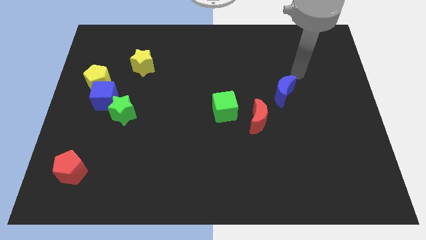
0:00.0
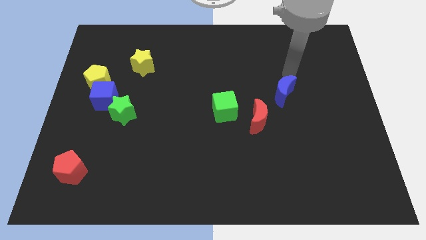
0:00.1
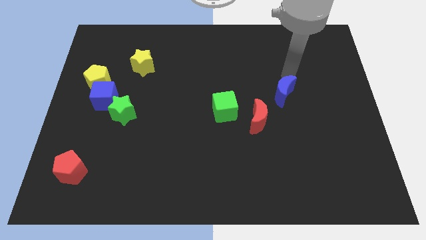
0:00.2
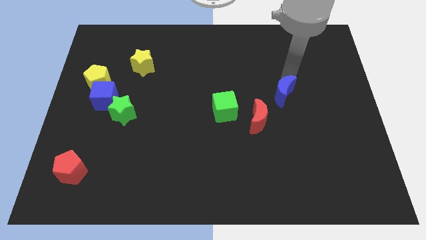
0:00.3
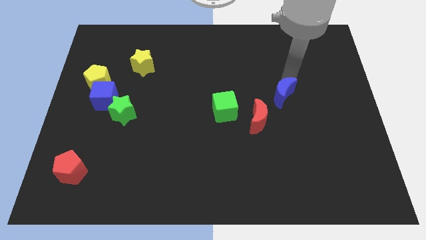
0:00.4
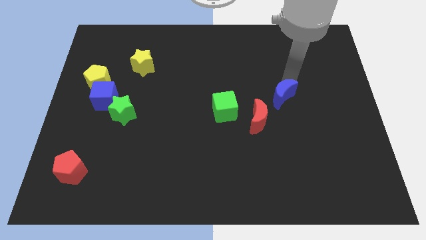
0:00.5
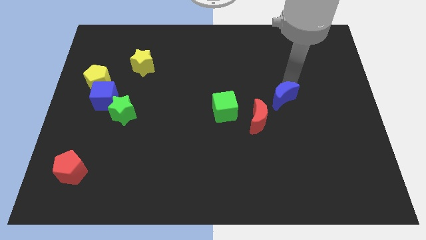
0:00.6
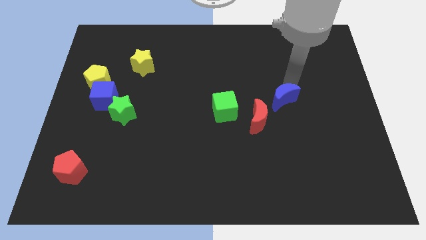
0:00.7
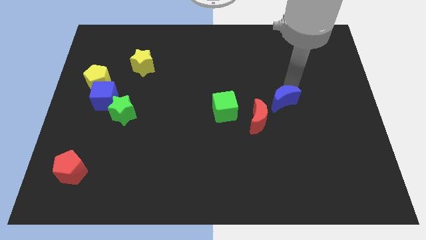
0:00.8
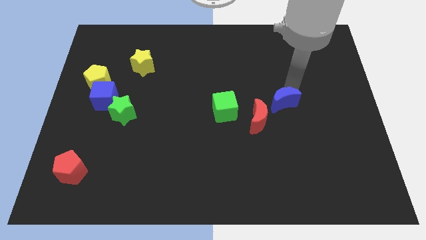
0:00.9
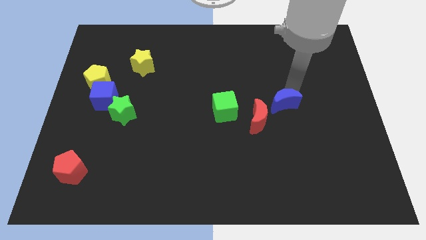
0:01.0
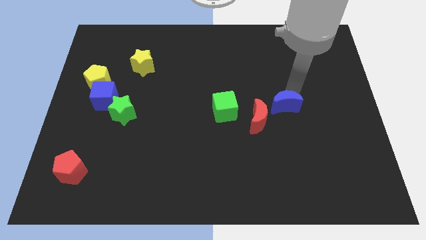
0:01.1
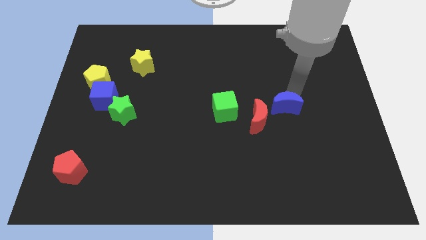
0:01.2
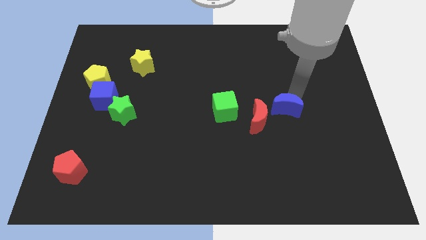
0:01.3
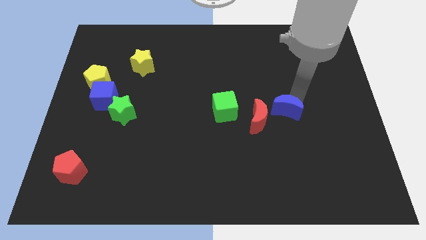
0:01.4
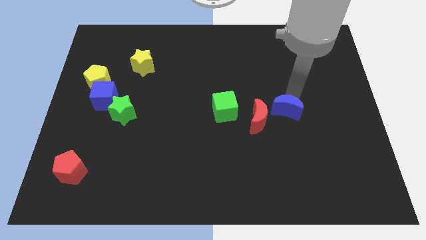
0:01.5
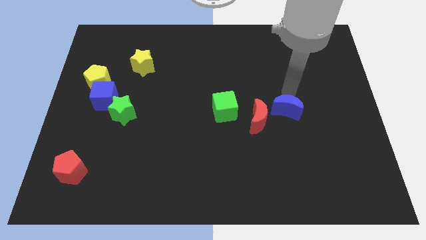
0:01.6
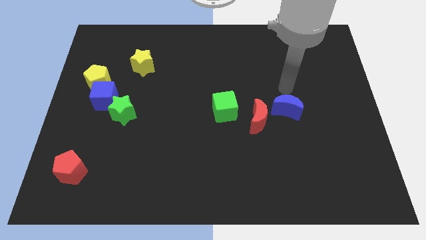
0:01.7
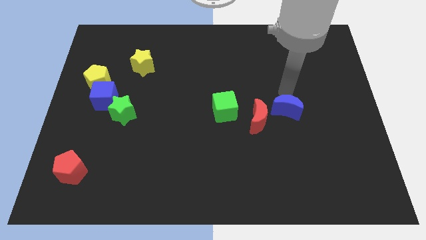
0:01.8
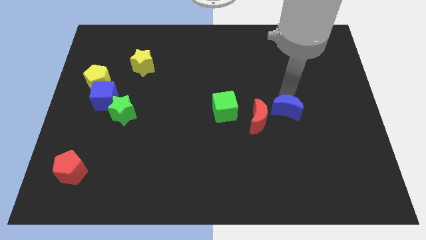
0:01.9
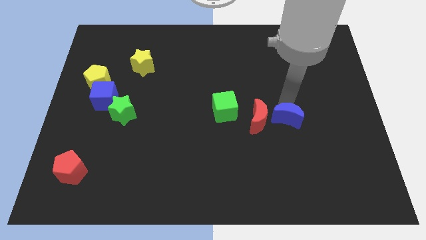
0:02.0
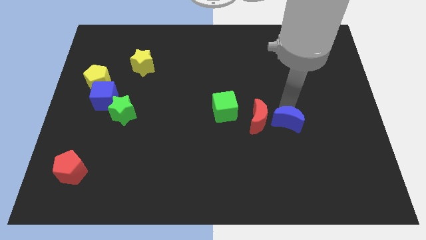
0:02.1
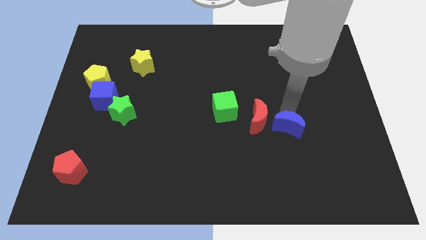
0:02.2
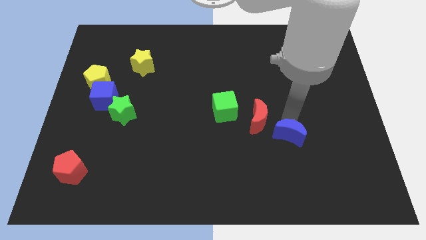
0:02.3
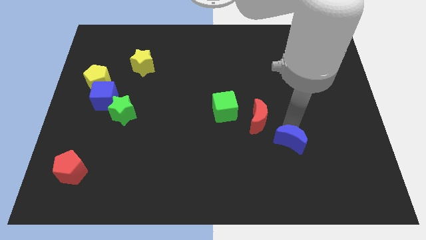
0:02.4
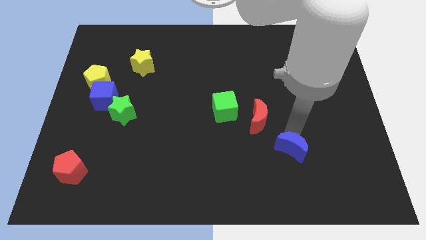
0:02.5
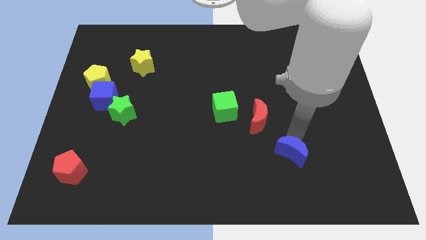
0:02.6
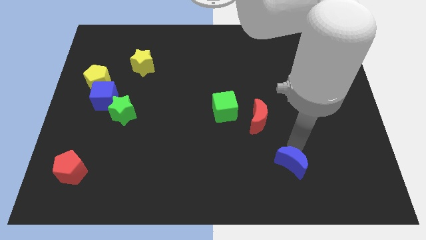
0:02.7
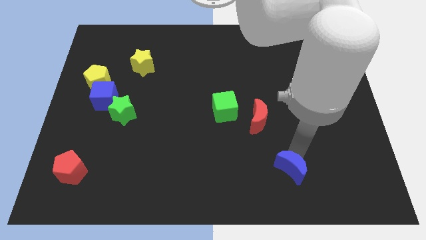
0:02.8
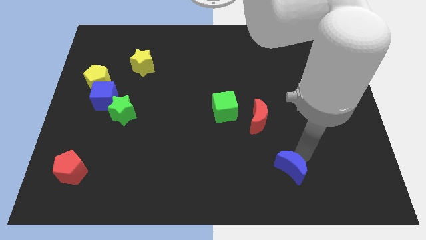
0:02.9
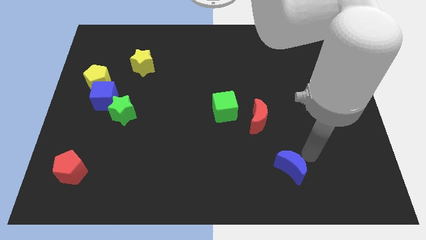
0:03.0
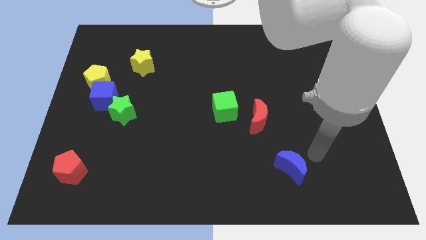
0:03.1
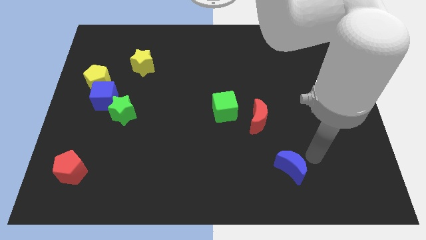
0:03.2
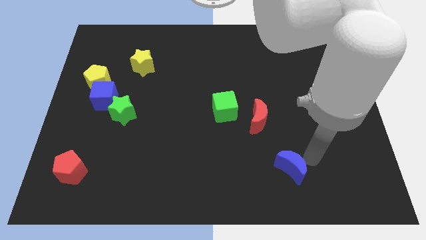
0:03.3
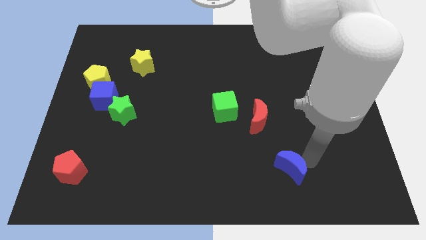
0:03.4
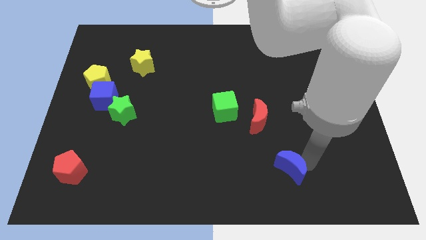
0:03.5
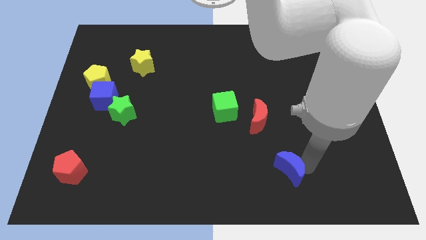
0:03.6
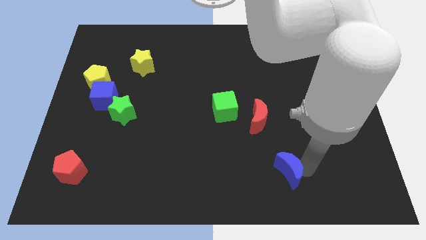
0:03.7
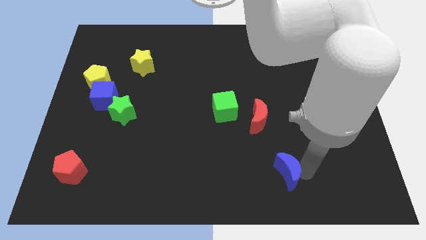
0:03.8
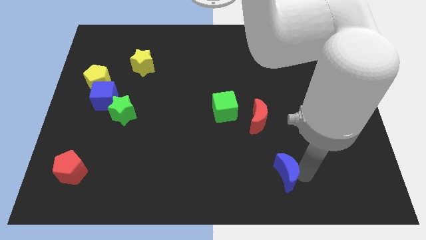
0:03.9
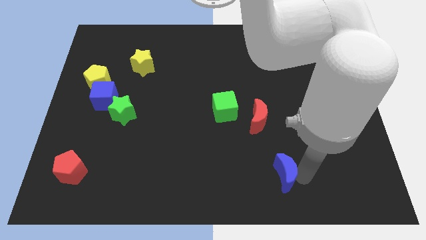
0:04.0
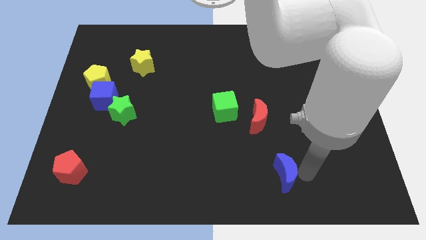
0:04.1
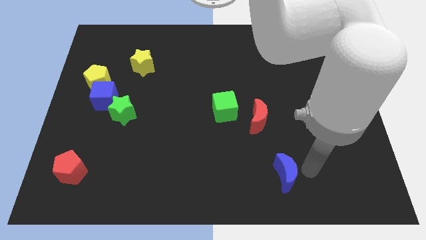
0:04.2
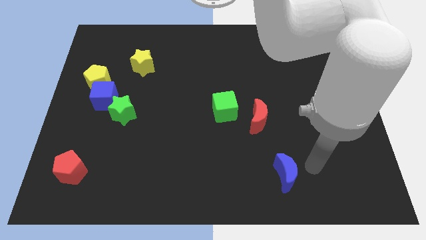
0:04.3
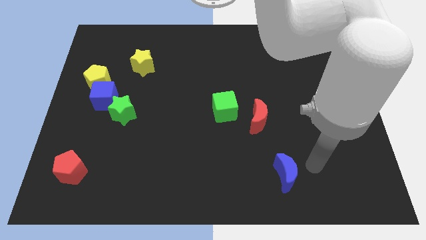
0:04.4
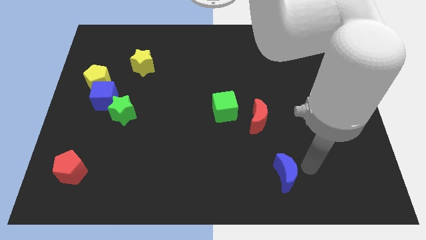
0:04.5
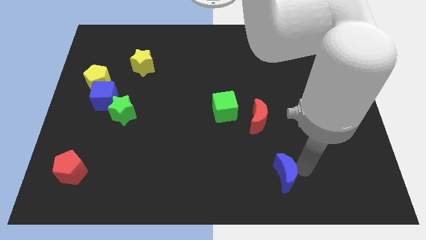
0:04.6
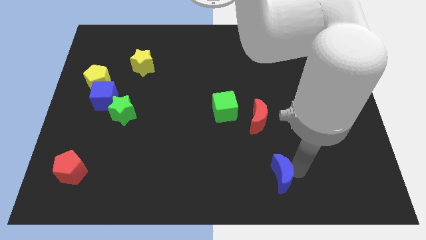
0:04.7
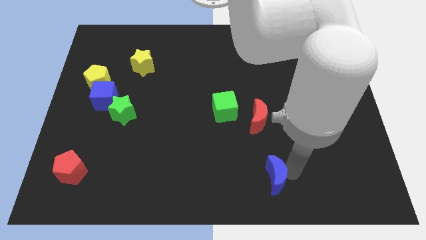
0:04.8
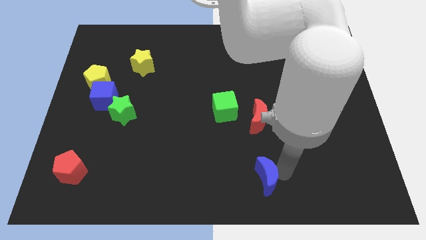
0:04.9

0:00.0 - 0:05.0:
move the blue moon to the bottom

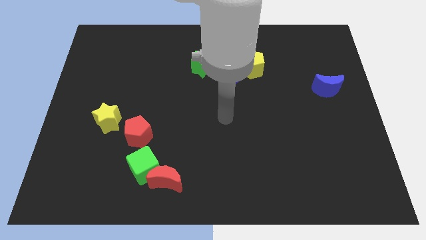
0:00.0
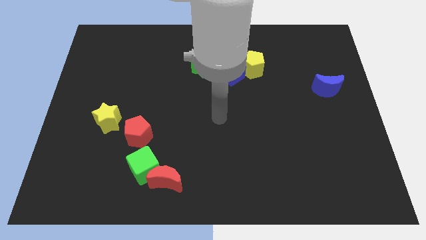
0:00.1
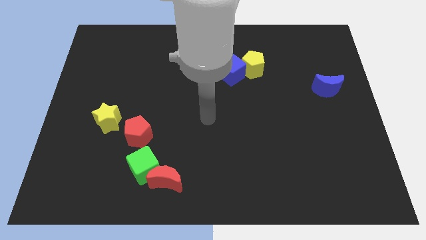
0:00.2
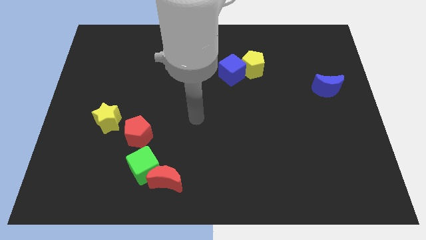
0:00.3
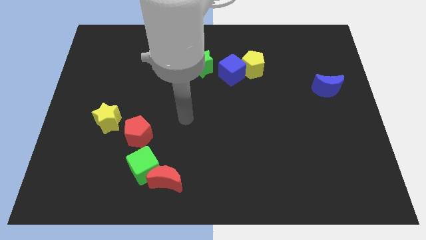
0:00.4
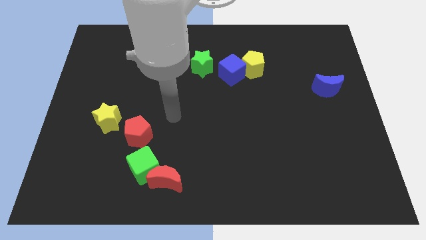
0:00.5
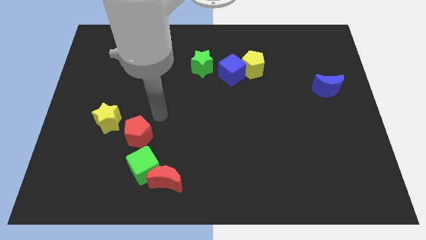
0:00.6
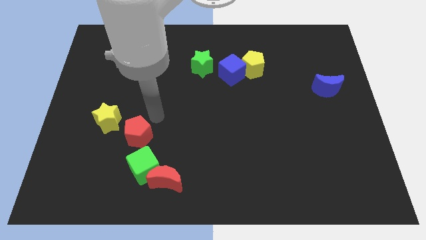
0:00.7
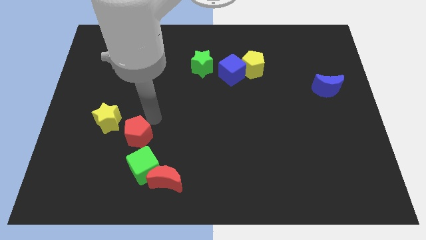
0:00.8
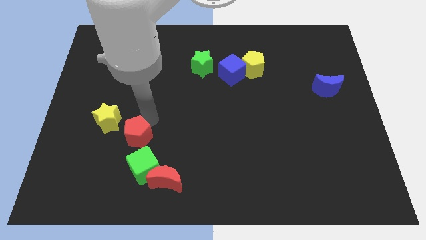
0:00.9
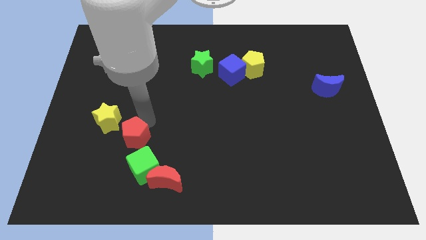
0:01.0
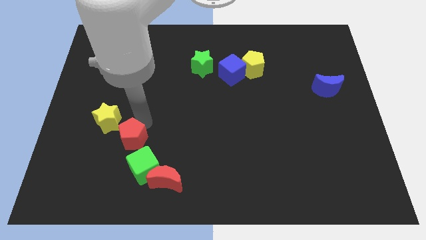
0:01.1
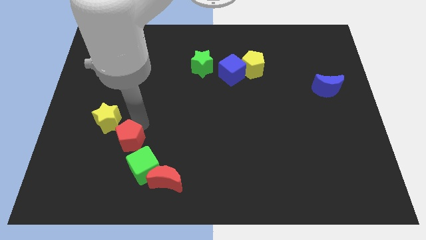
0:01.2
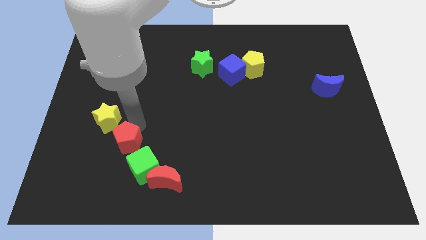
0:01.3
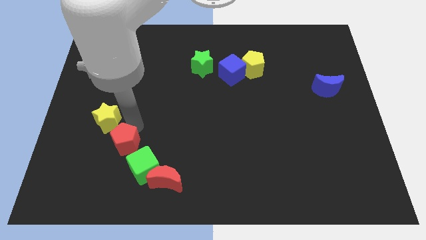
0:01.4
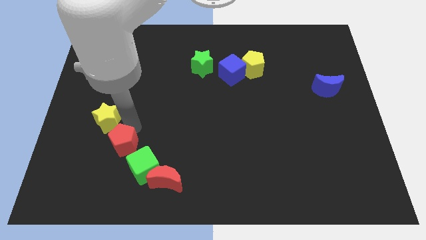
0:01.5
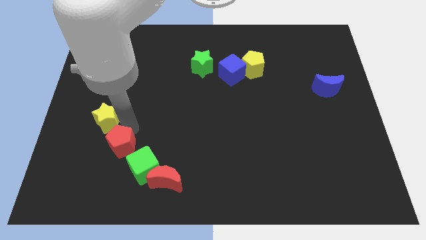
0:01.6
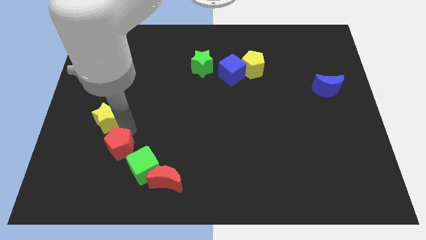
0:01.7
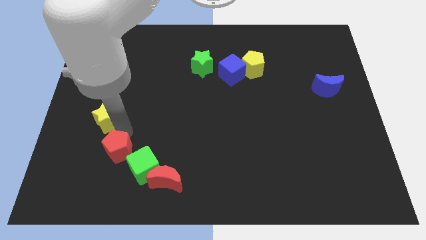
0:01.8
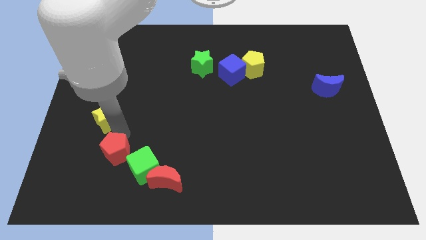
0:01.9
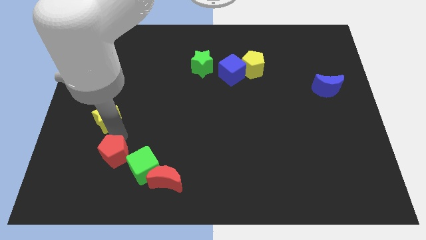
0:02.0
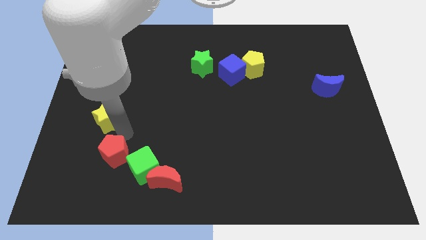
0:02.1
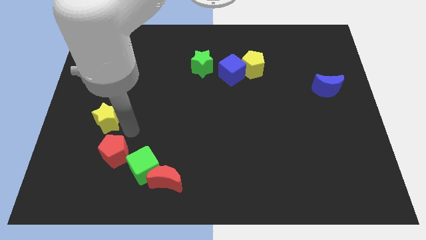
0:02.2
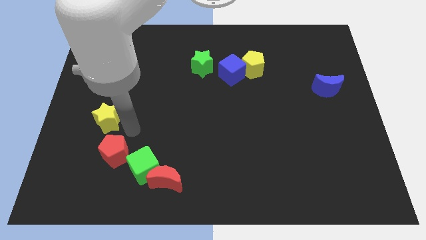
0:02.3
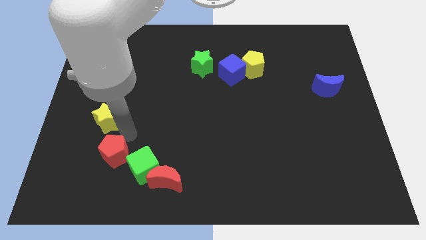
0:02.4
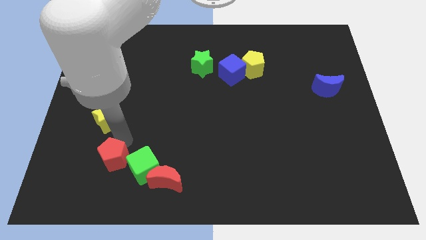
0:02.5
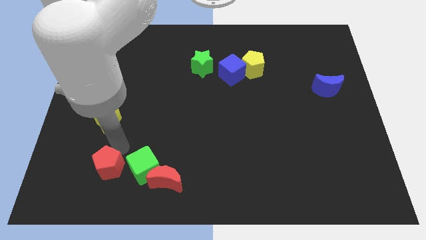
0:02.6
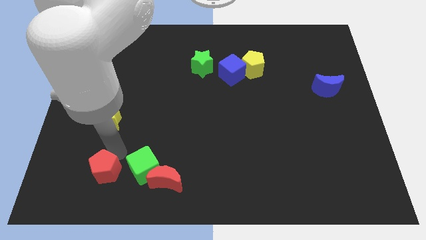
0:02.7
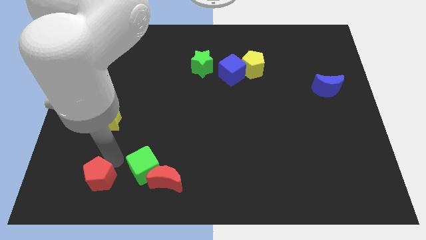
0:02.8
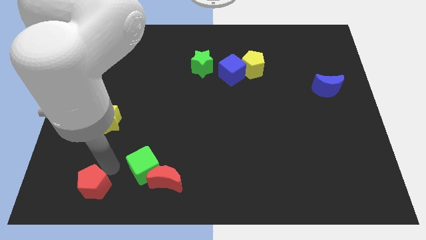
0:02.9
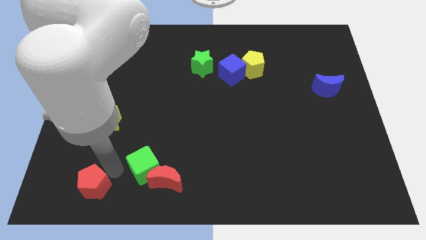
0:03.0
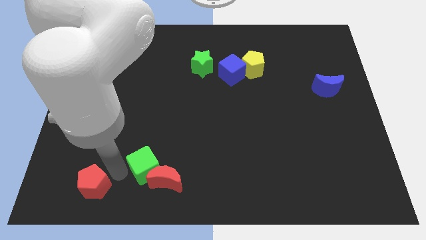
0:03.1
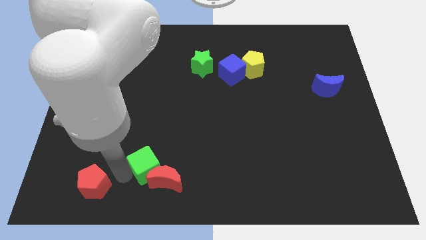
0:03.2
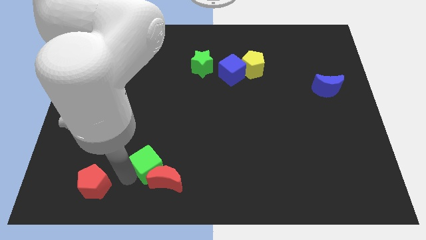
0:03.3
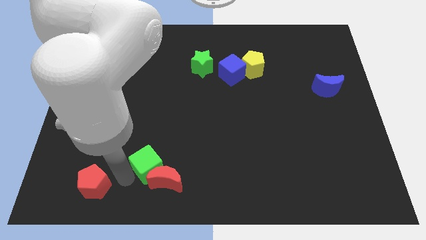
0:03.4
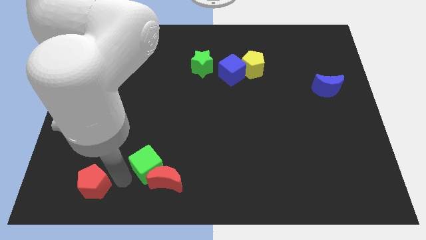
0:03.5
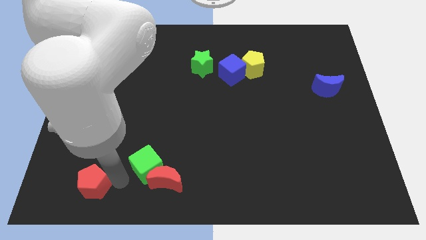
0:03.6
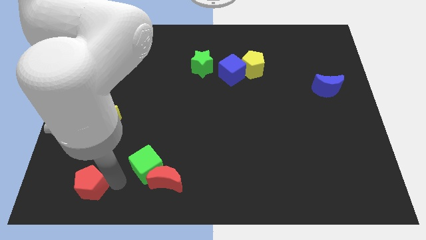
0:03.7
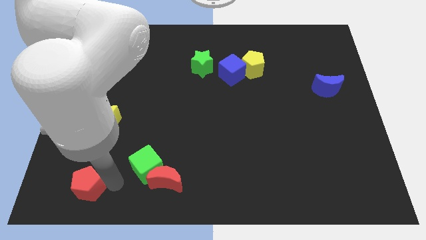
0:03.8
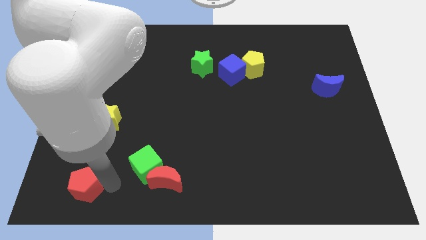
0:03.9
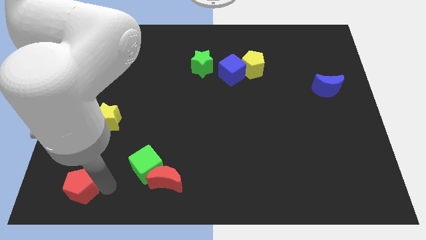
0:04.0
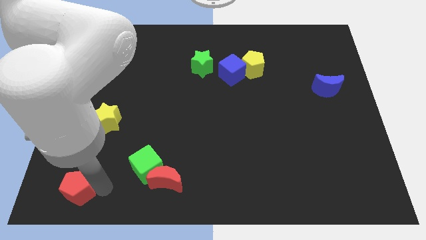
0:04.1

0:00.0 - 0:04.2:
move the red pentagon to the lower left corner
